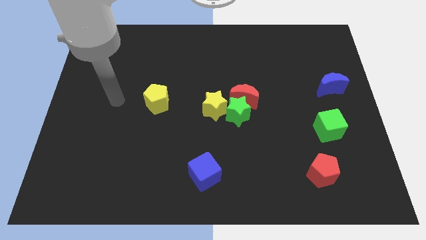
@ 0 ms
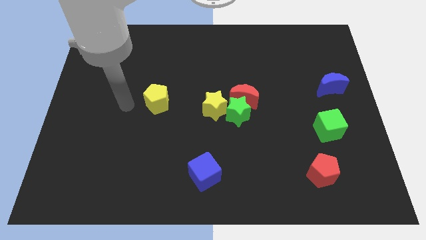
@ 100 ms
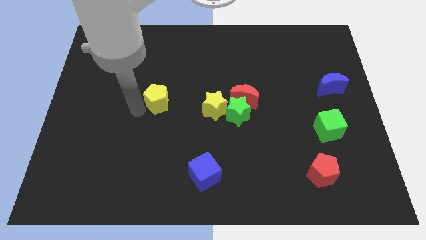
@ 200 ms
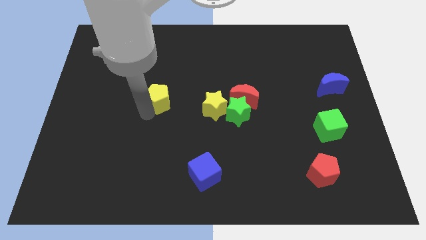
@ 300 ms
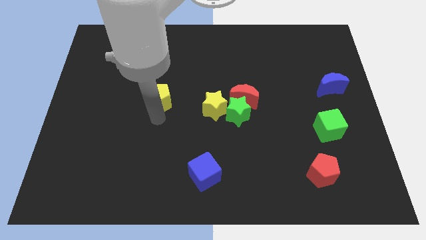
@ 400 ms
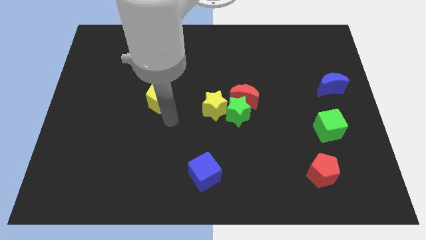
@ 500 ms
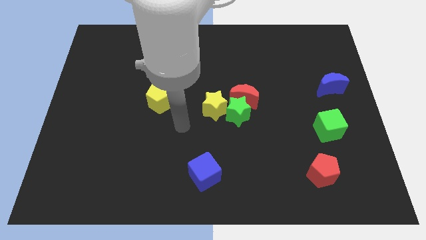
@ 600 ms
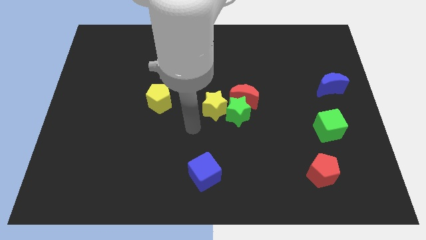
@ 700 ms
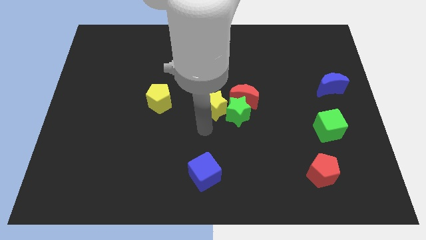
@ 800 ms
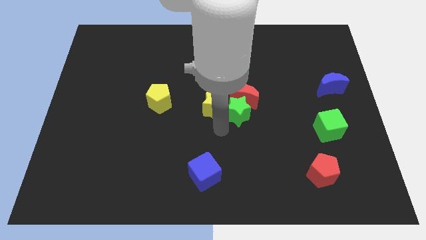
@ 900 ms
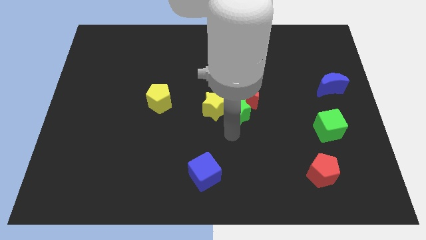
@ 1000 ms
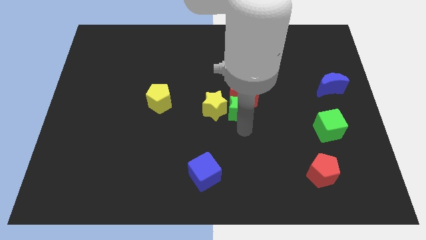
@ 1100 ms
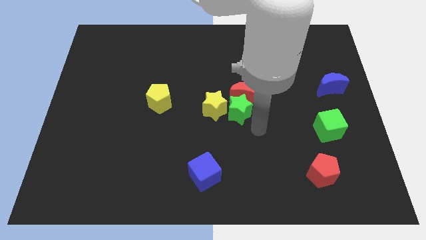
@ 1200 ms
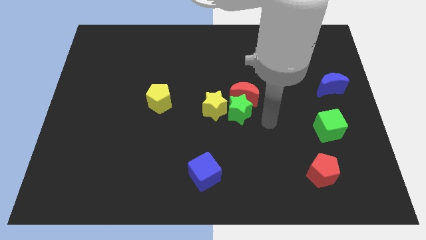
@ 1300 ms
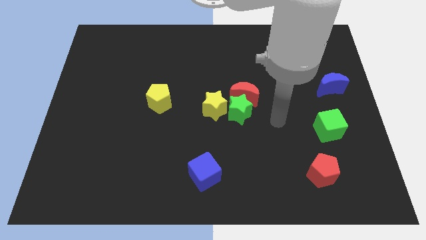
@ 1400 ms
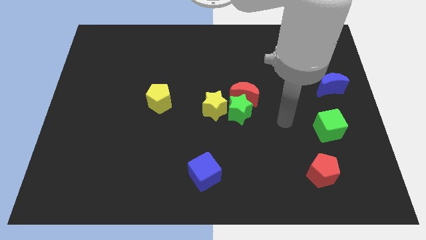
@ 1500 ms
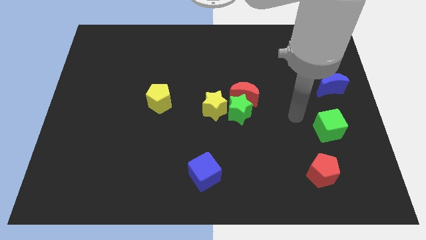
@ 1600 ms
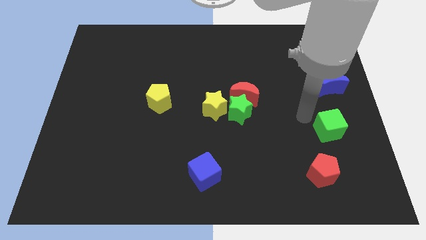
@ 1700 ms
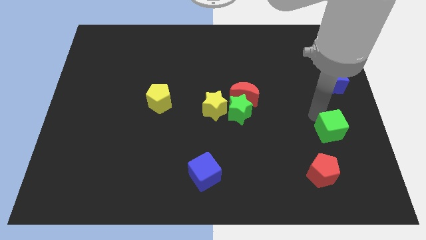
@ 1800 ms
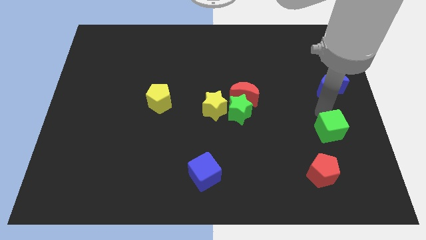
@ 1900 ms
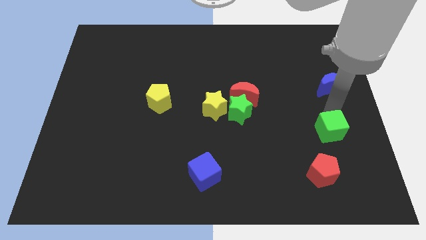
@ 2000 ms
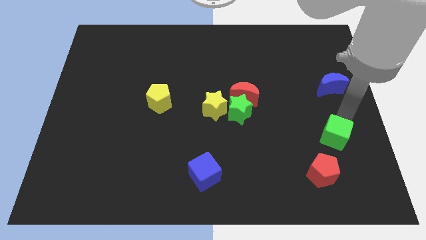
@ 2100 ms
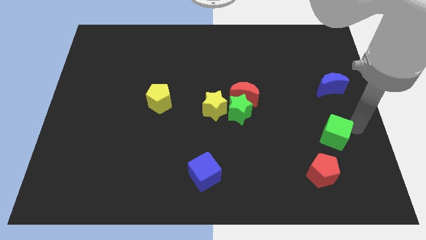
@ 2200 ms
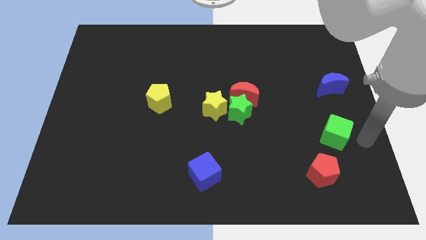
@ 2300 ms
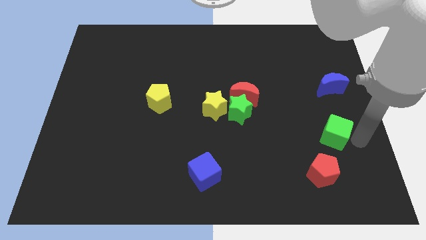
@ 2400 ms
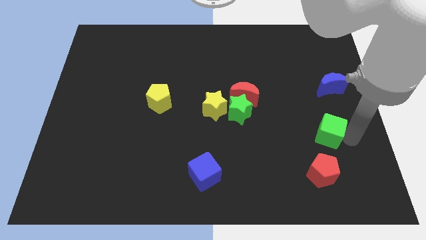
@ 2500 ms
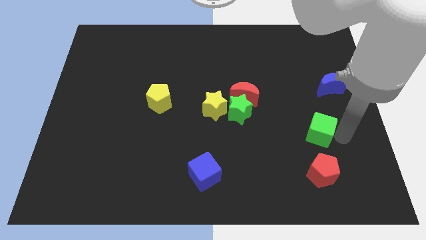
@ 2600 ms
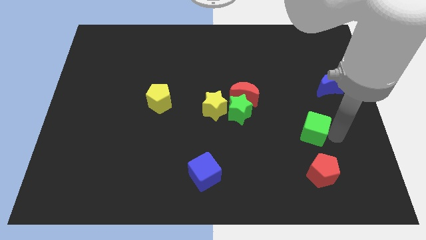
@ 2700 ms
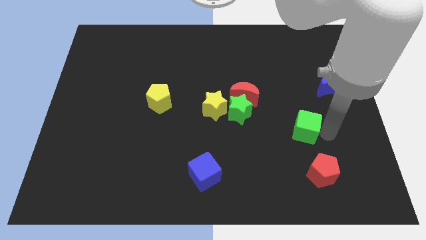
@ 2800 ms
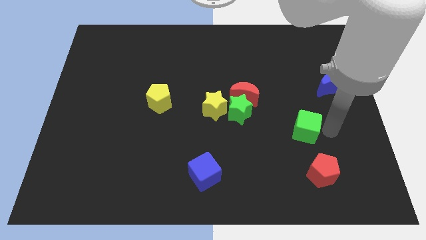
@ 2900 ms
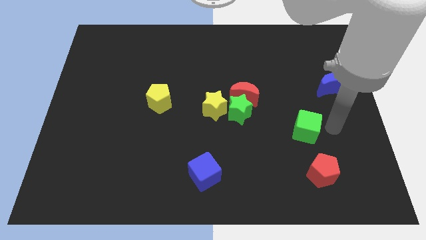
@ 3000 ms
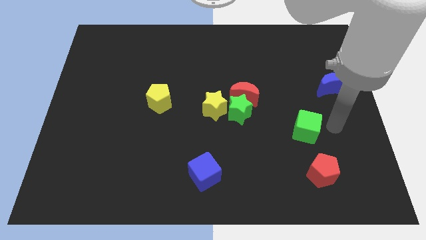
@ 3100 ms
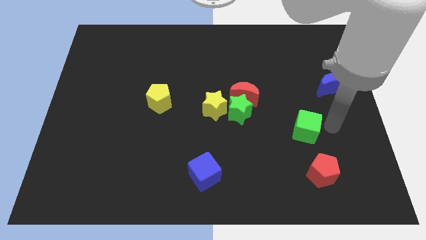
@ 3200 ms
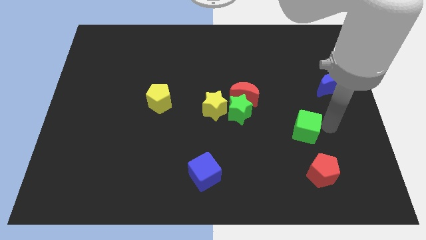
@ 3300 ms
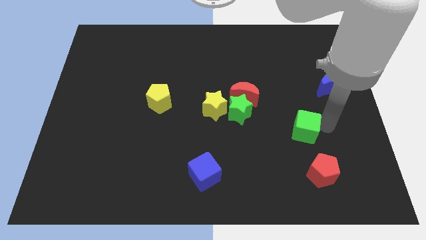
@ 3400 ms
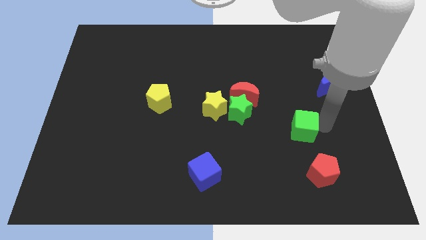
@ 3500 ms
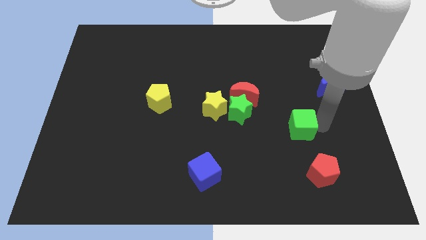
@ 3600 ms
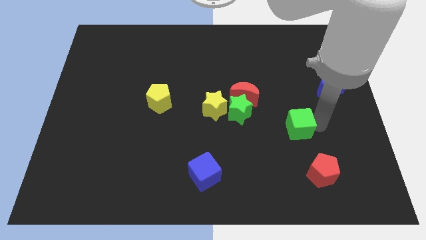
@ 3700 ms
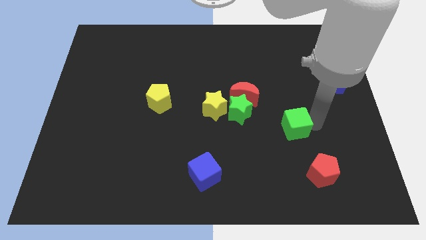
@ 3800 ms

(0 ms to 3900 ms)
push the green cube slightly to the left

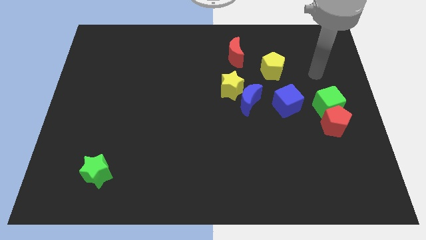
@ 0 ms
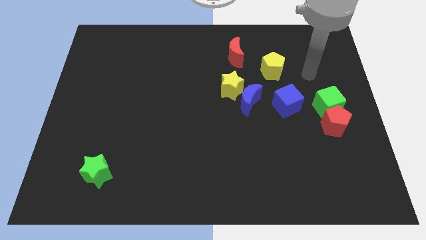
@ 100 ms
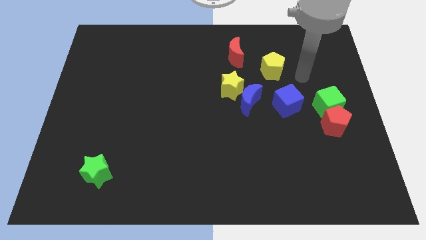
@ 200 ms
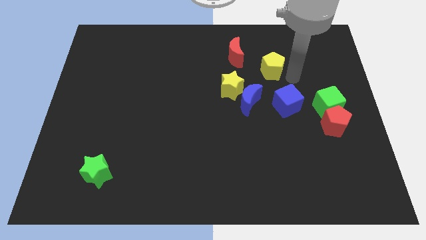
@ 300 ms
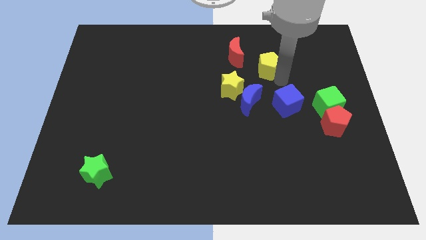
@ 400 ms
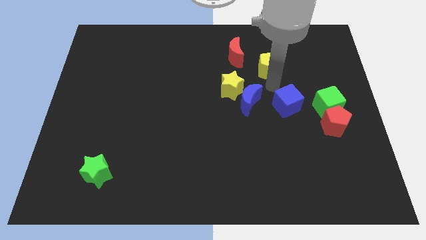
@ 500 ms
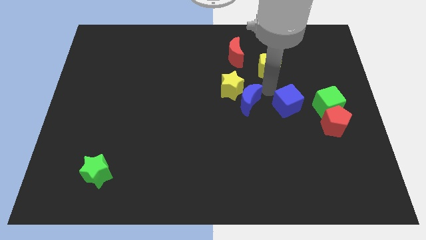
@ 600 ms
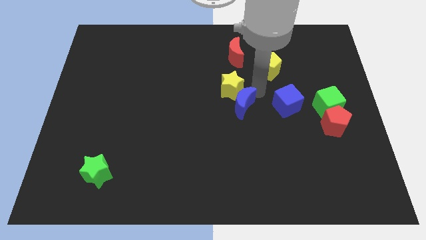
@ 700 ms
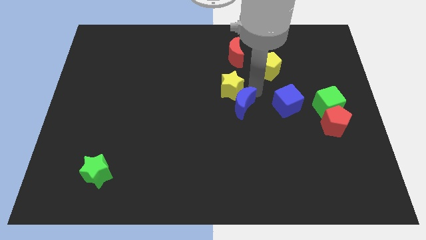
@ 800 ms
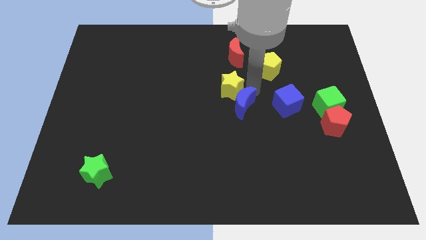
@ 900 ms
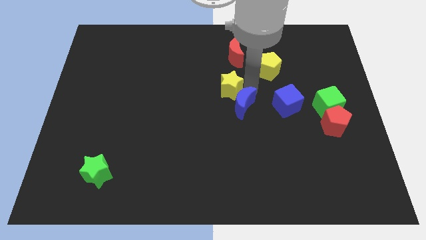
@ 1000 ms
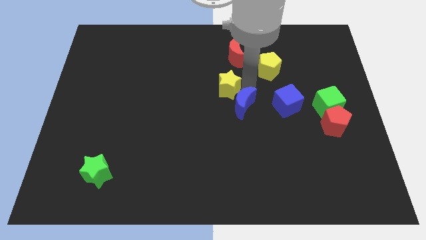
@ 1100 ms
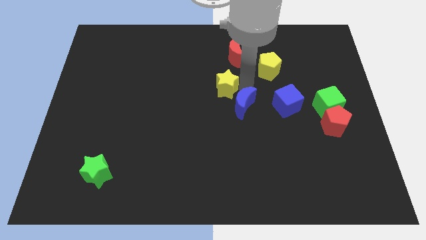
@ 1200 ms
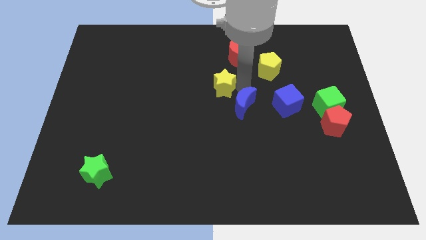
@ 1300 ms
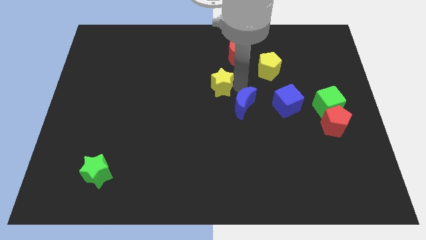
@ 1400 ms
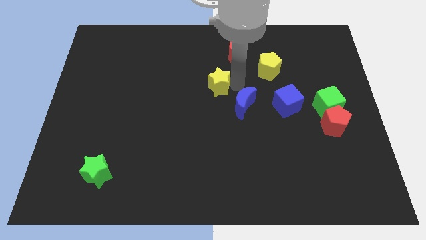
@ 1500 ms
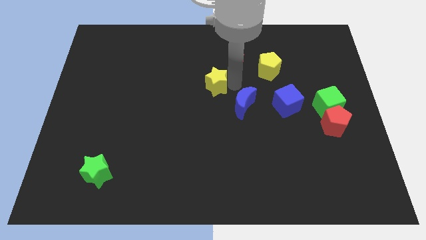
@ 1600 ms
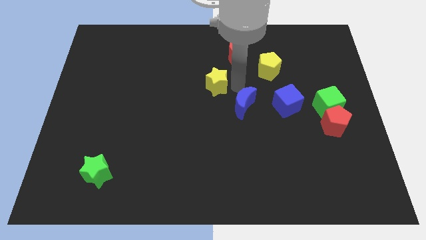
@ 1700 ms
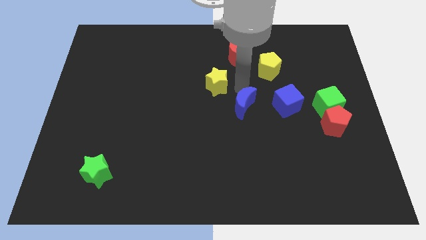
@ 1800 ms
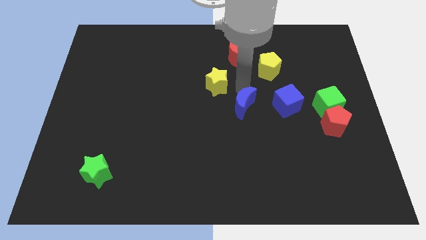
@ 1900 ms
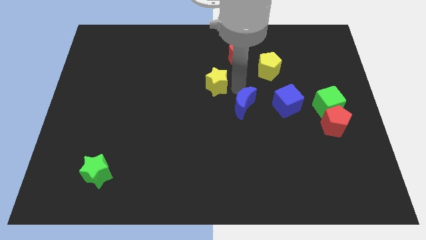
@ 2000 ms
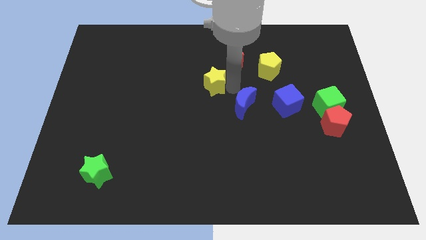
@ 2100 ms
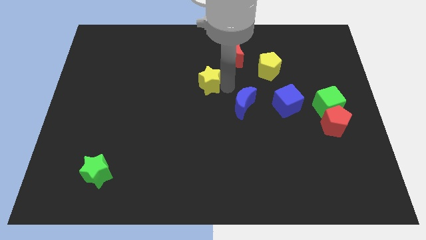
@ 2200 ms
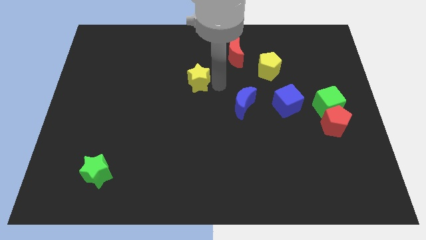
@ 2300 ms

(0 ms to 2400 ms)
slightly slide the yellow star left

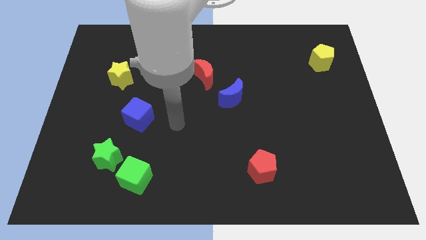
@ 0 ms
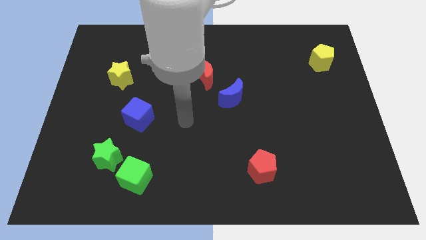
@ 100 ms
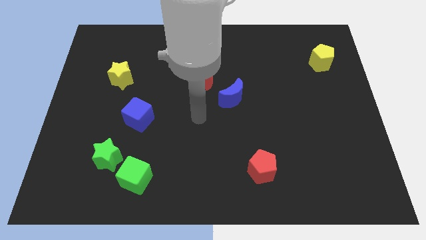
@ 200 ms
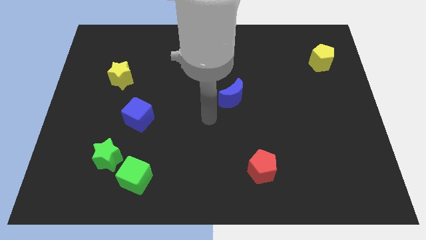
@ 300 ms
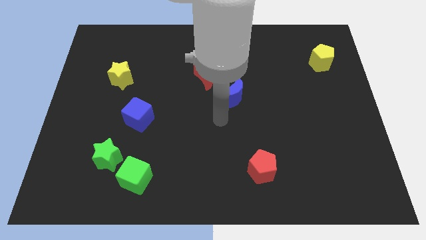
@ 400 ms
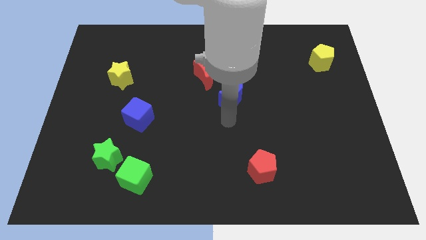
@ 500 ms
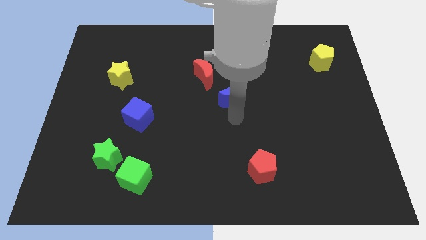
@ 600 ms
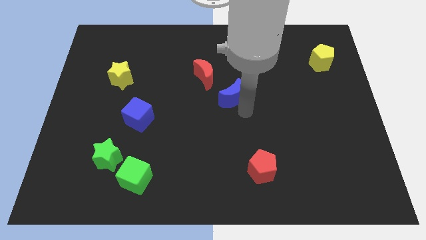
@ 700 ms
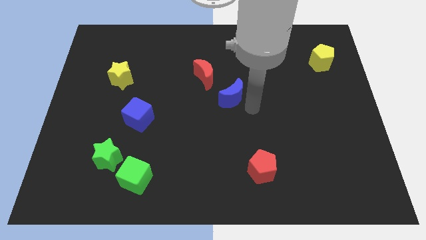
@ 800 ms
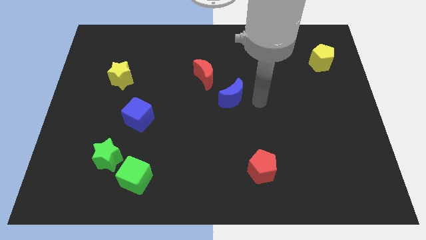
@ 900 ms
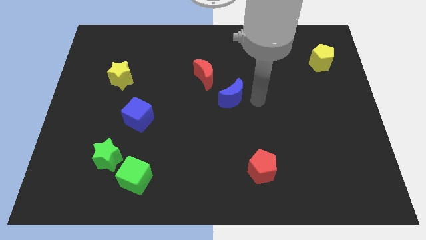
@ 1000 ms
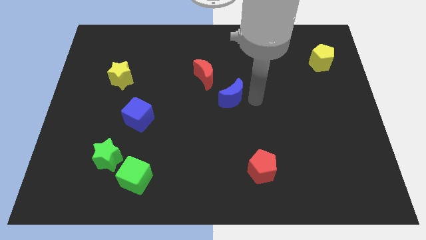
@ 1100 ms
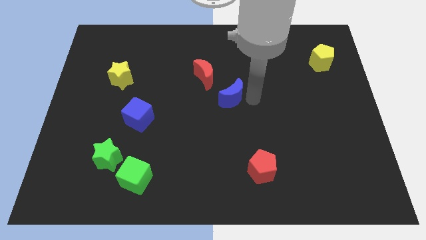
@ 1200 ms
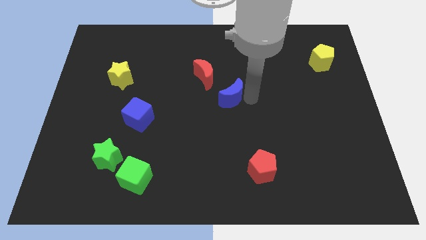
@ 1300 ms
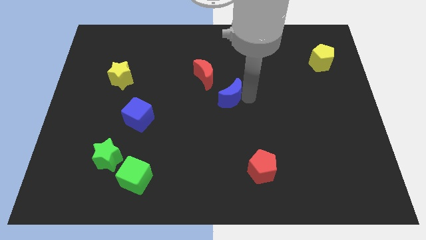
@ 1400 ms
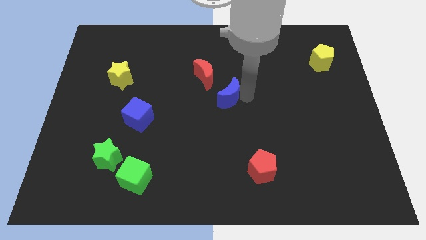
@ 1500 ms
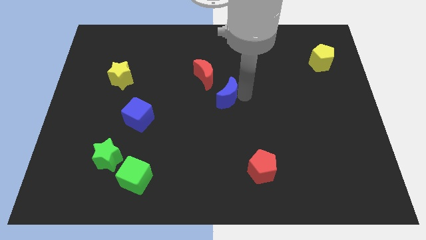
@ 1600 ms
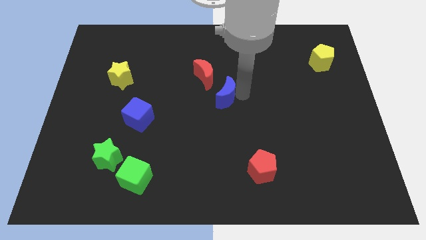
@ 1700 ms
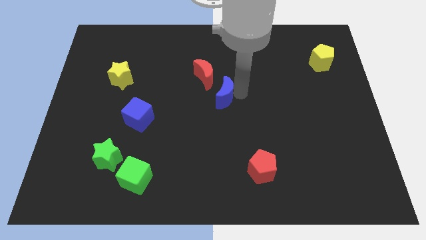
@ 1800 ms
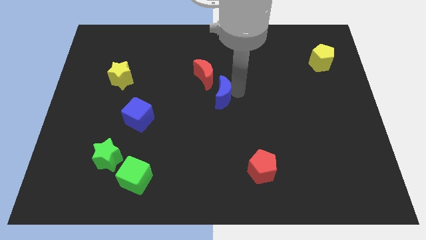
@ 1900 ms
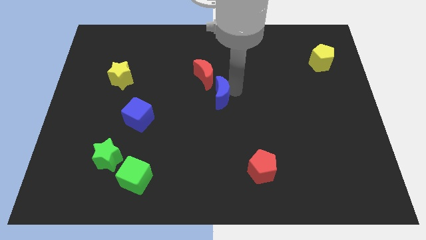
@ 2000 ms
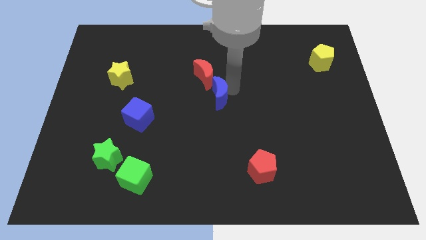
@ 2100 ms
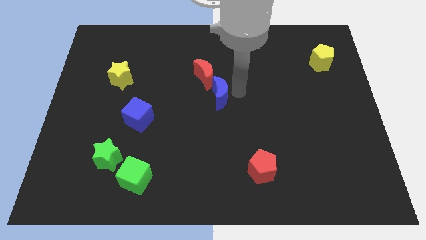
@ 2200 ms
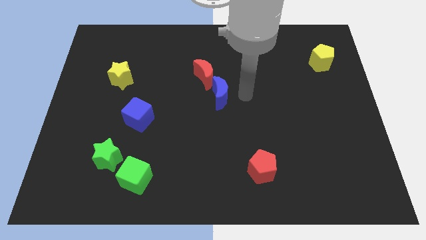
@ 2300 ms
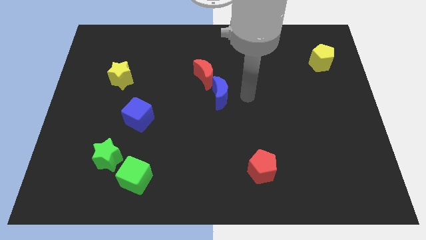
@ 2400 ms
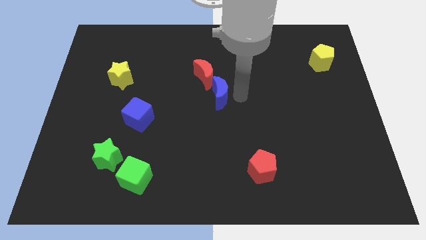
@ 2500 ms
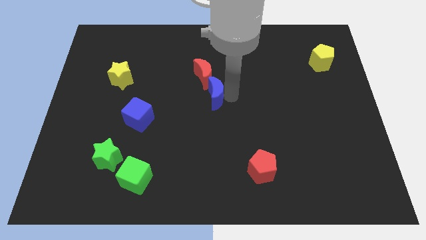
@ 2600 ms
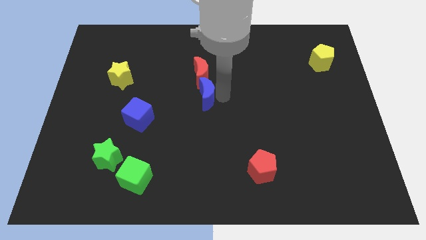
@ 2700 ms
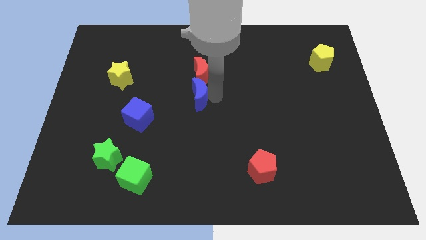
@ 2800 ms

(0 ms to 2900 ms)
slide the blue moon somewhat to the left
